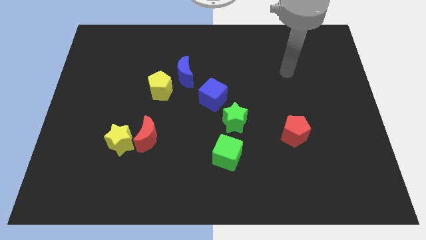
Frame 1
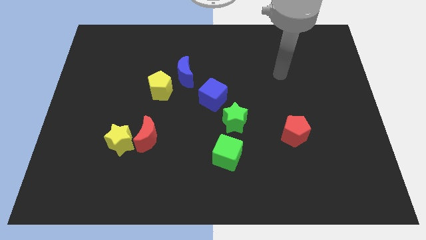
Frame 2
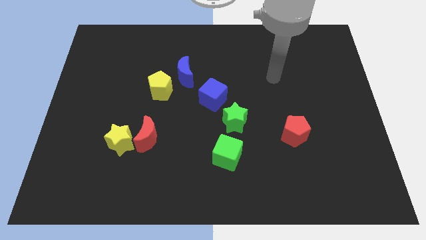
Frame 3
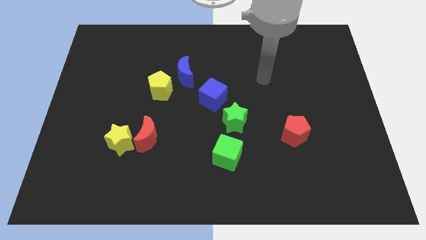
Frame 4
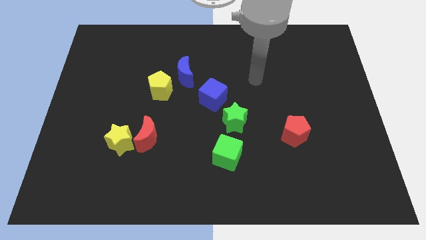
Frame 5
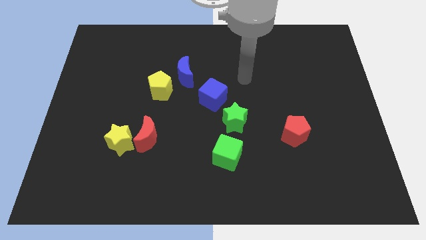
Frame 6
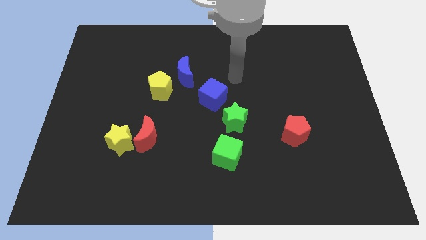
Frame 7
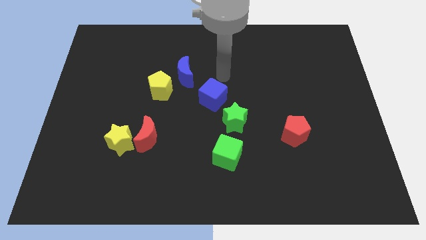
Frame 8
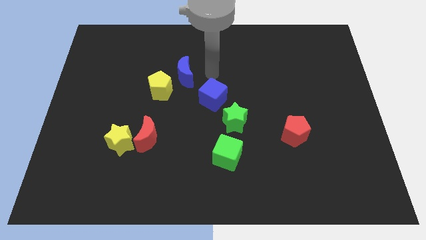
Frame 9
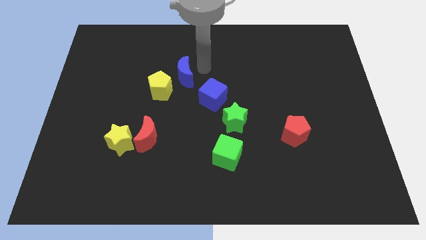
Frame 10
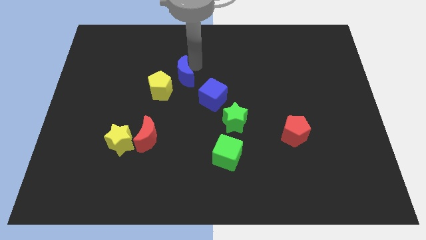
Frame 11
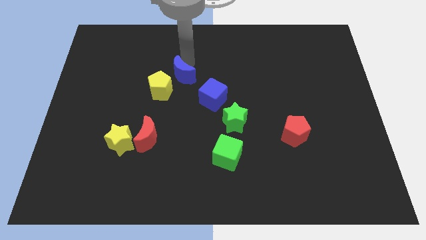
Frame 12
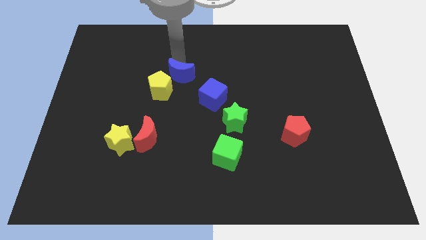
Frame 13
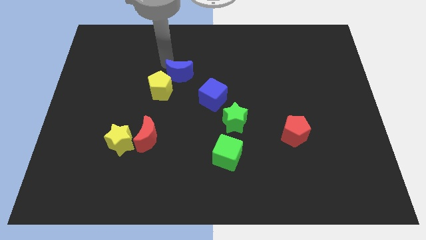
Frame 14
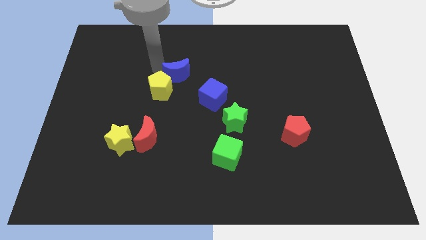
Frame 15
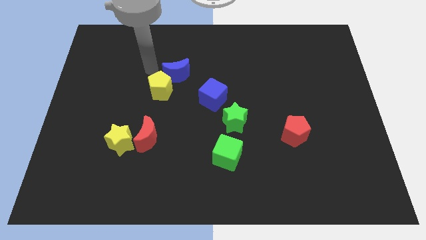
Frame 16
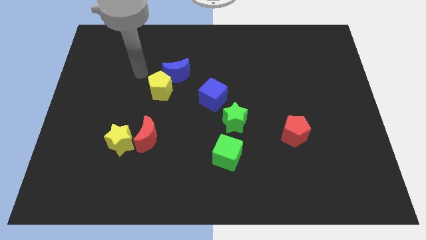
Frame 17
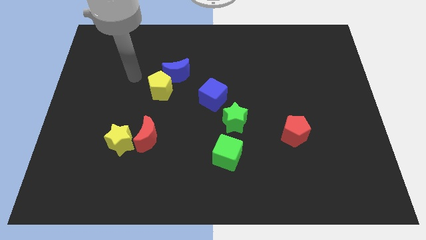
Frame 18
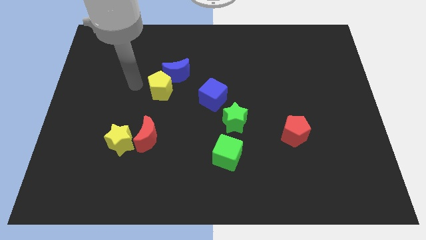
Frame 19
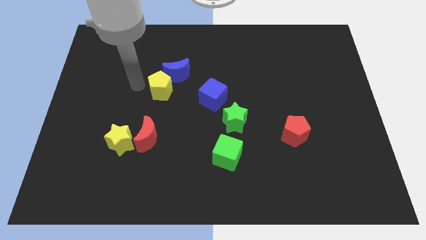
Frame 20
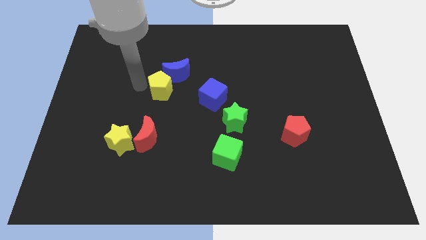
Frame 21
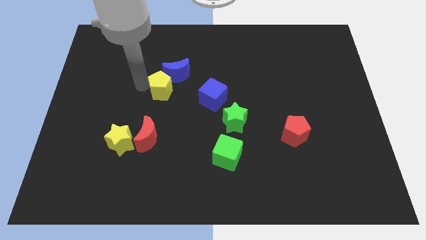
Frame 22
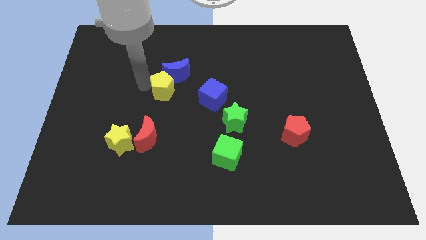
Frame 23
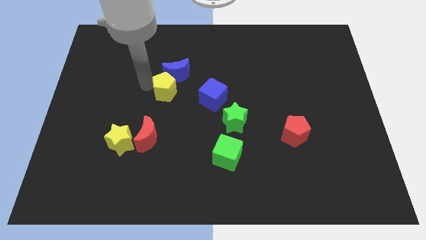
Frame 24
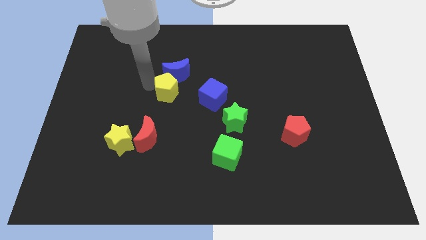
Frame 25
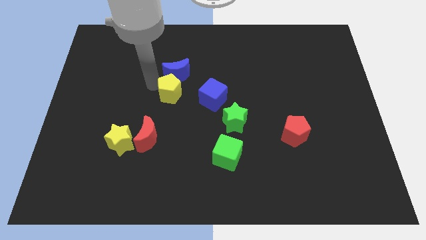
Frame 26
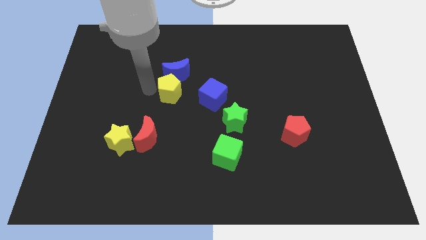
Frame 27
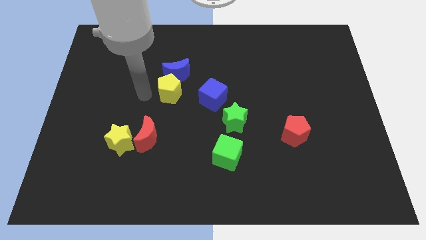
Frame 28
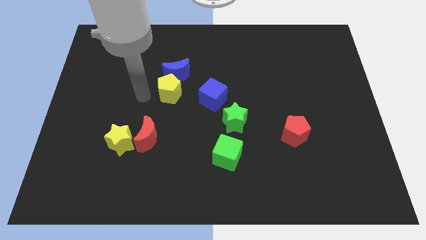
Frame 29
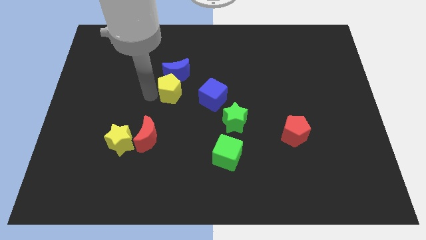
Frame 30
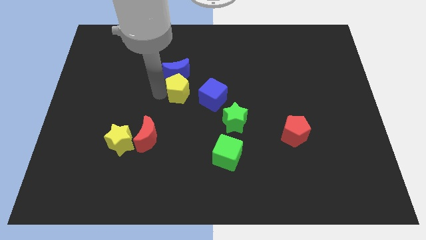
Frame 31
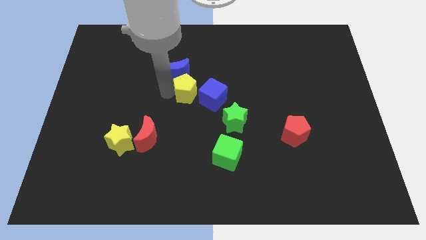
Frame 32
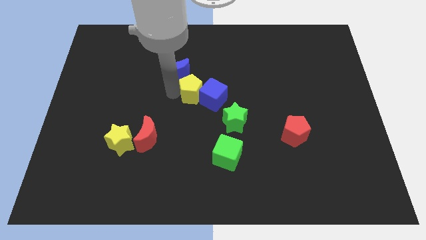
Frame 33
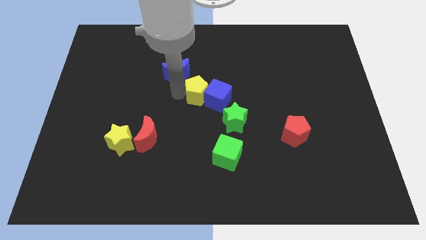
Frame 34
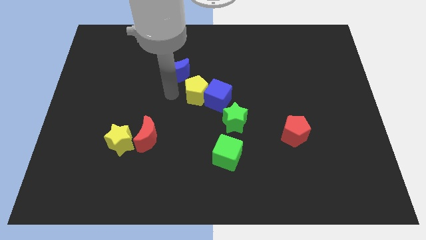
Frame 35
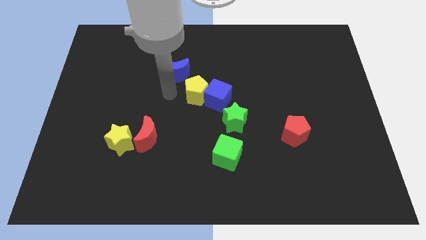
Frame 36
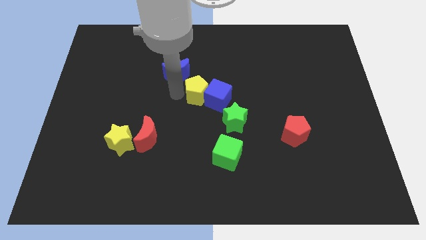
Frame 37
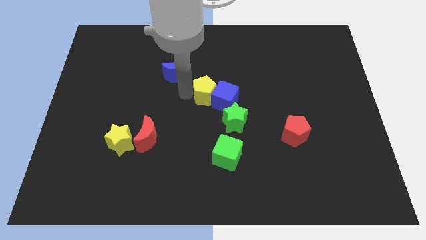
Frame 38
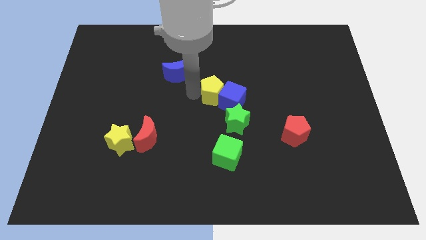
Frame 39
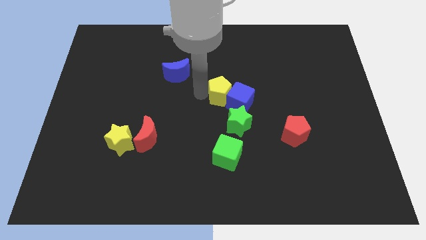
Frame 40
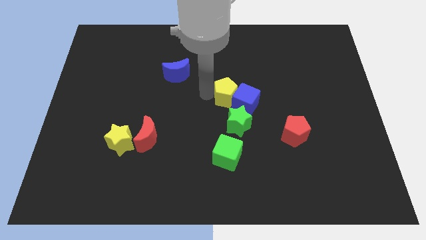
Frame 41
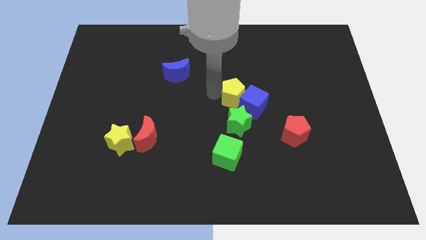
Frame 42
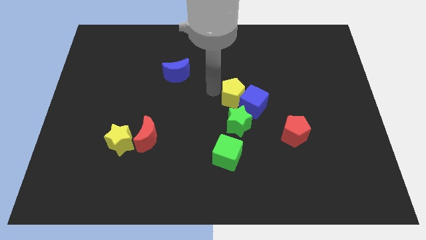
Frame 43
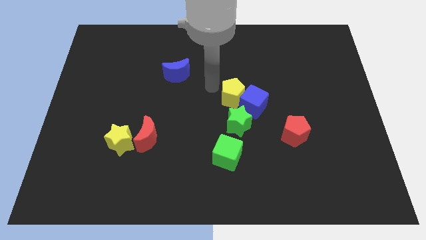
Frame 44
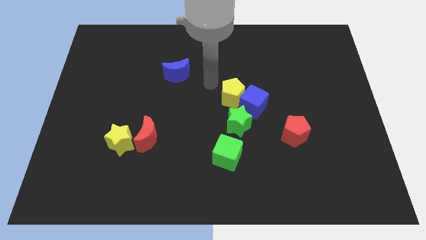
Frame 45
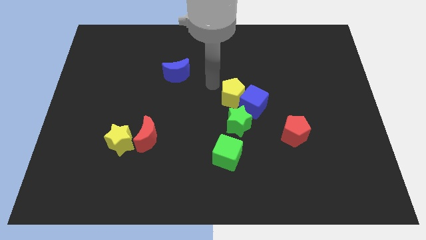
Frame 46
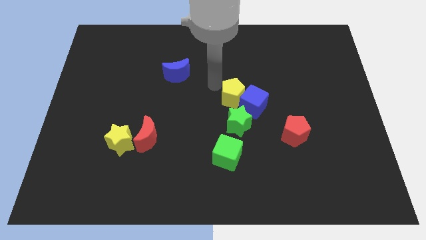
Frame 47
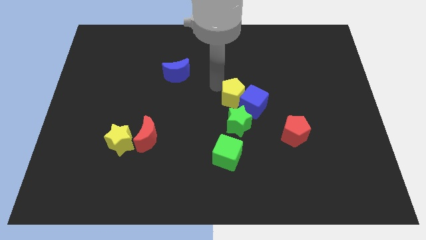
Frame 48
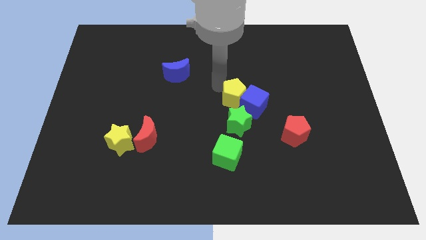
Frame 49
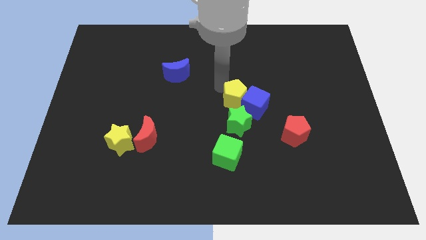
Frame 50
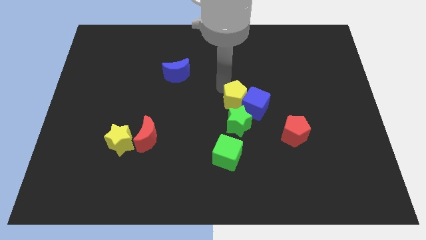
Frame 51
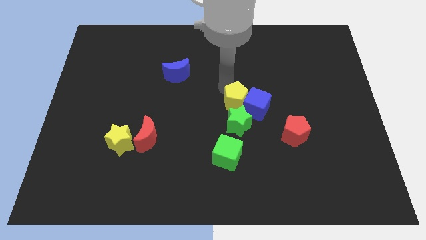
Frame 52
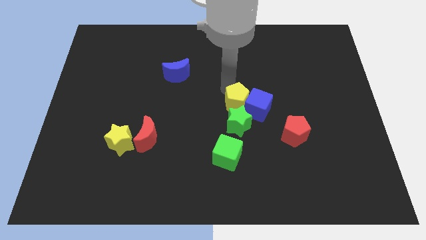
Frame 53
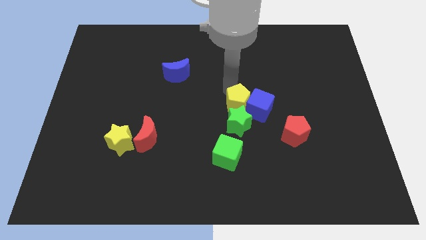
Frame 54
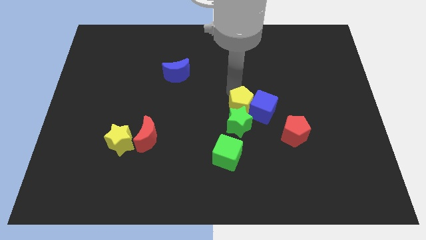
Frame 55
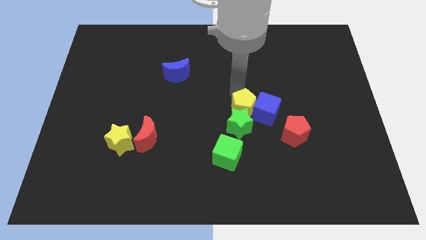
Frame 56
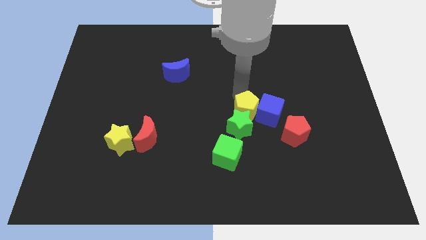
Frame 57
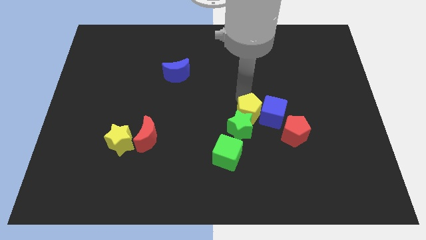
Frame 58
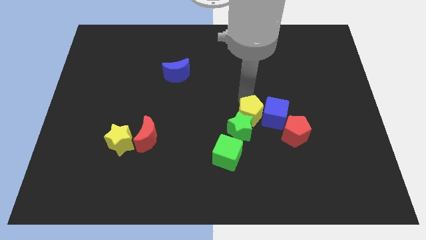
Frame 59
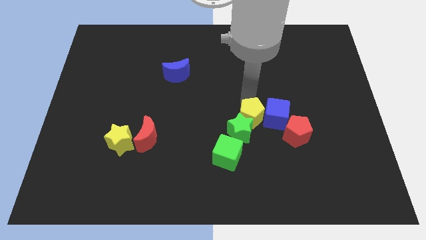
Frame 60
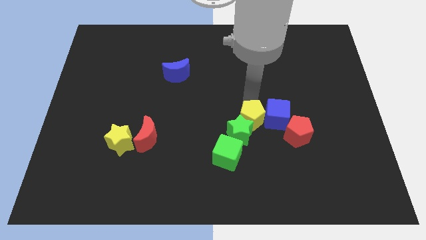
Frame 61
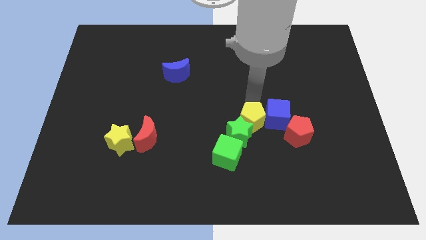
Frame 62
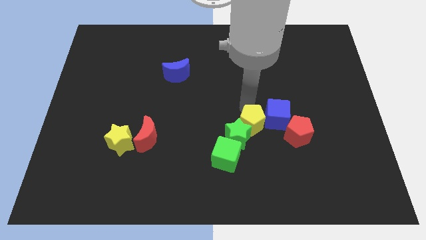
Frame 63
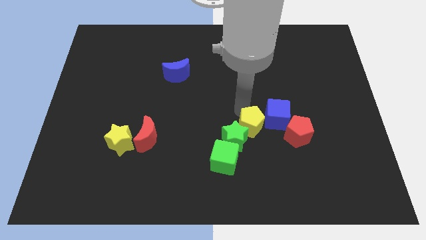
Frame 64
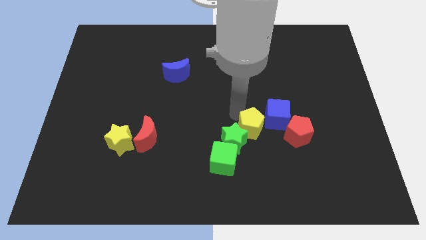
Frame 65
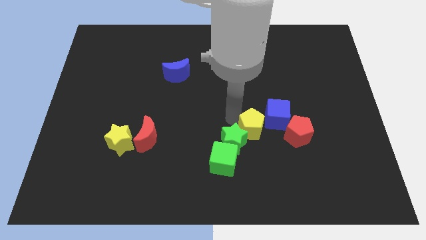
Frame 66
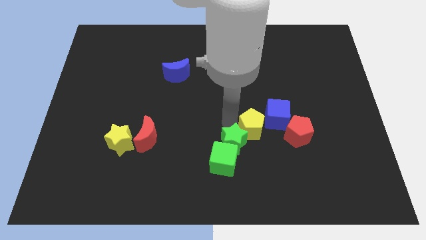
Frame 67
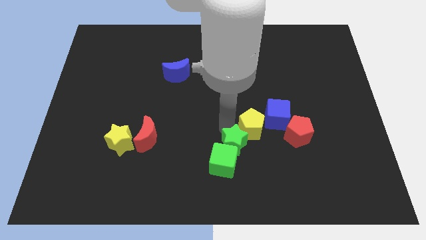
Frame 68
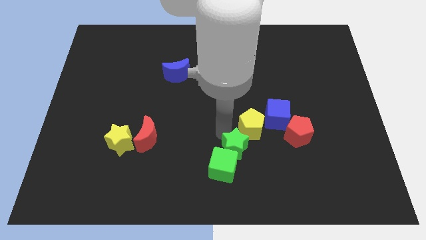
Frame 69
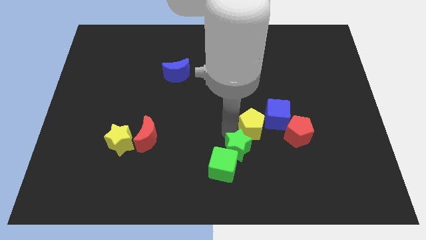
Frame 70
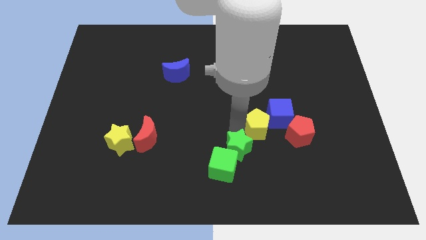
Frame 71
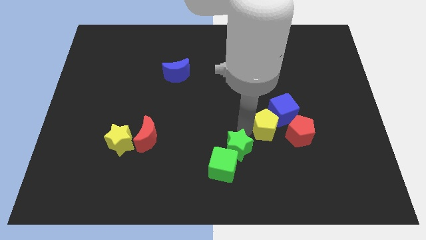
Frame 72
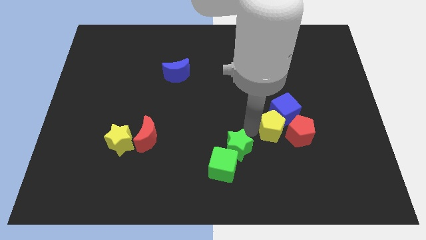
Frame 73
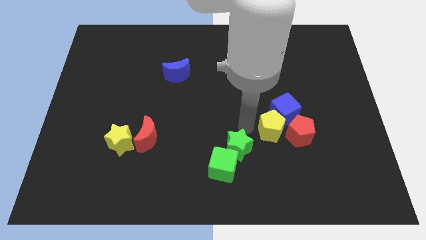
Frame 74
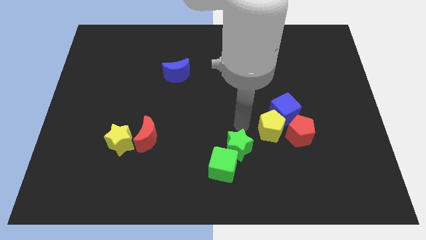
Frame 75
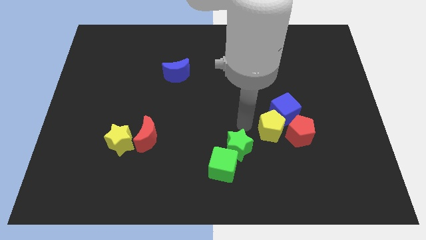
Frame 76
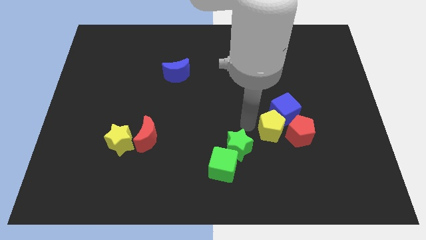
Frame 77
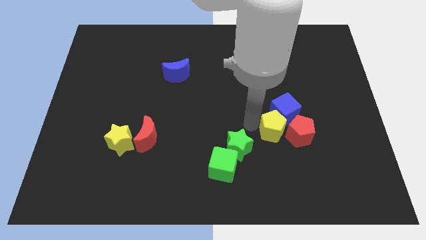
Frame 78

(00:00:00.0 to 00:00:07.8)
move the yellow pentagon to the red pentagon
